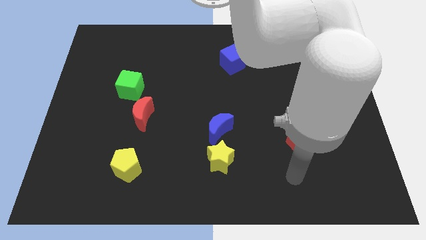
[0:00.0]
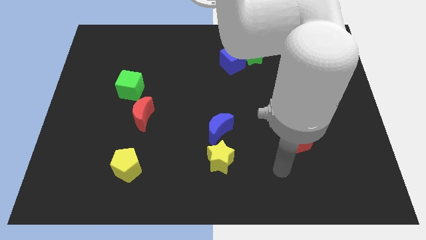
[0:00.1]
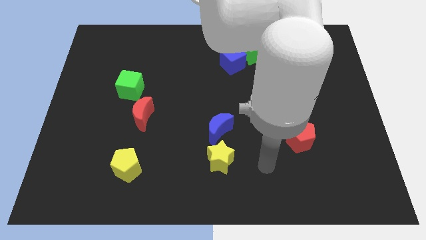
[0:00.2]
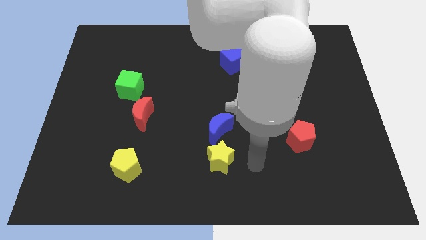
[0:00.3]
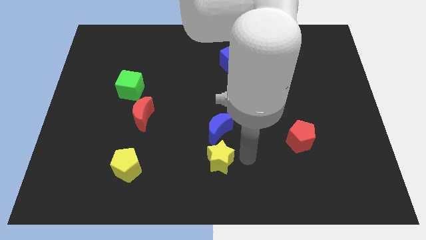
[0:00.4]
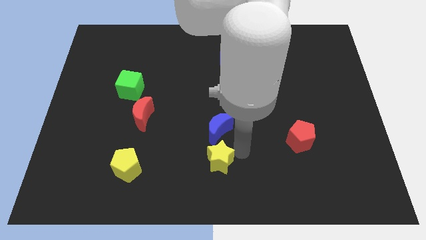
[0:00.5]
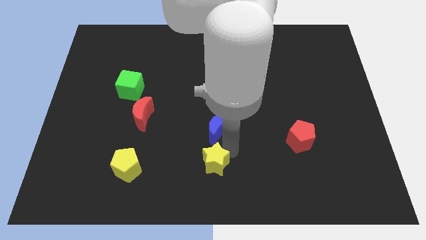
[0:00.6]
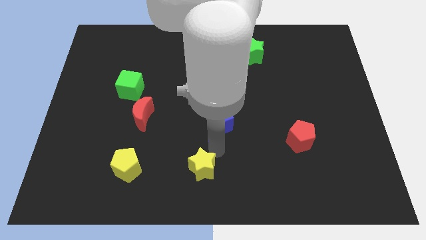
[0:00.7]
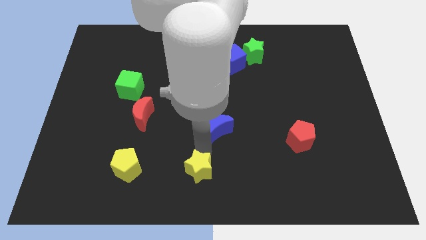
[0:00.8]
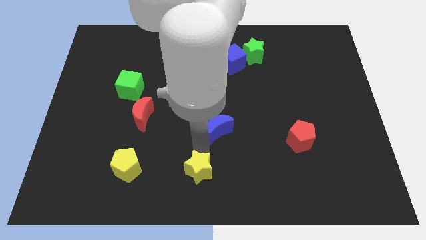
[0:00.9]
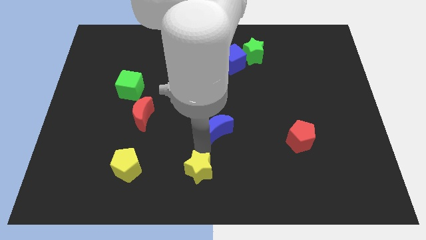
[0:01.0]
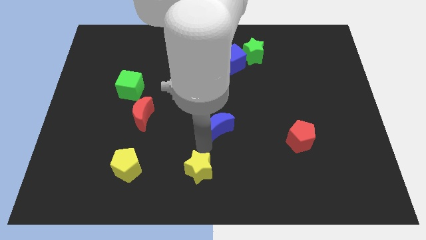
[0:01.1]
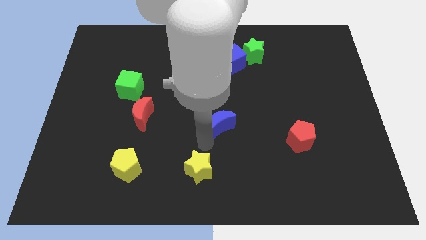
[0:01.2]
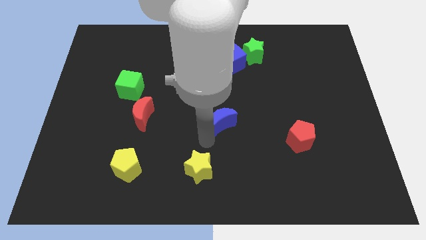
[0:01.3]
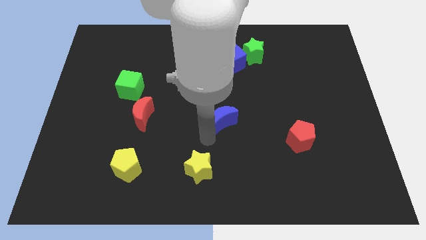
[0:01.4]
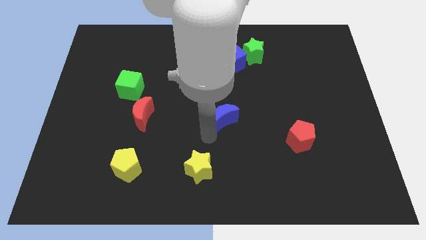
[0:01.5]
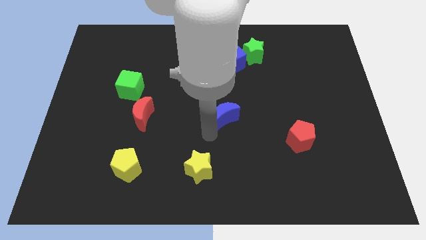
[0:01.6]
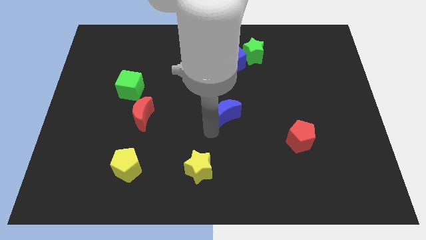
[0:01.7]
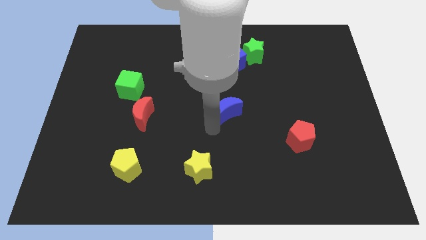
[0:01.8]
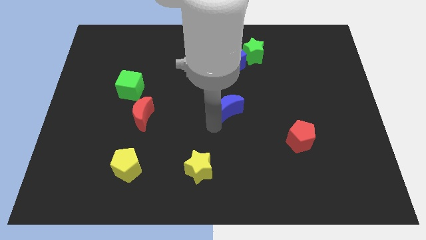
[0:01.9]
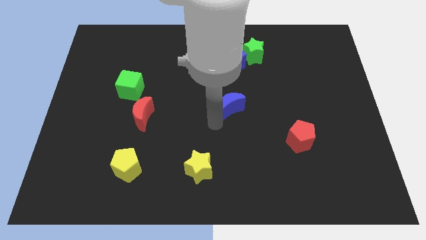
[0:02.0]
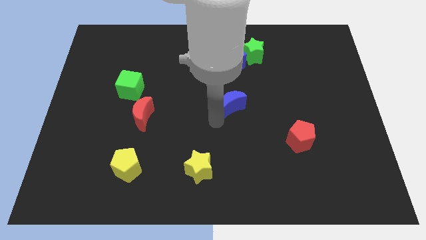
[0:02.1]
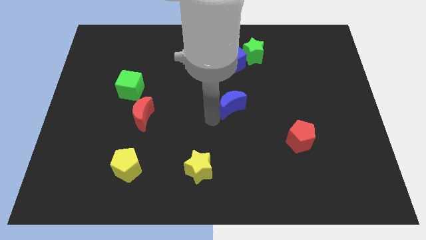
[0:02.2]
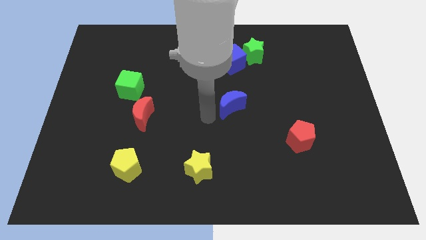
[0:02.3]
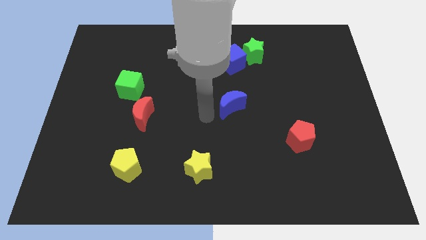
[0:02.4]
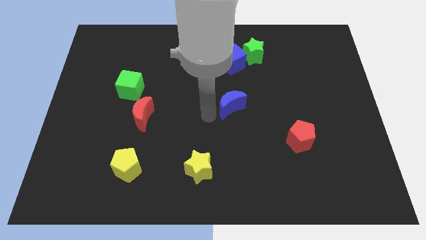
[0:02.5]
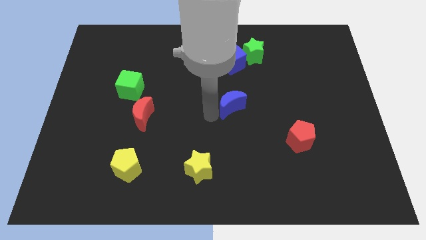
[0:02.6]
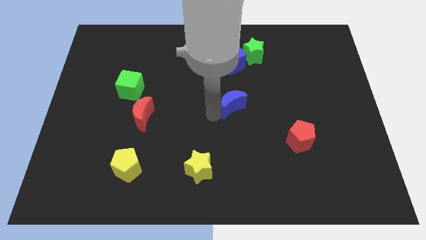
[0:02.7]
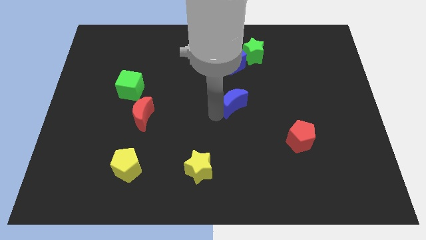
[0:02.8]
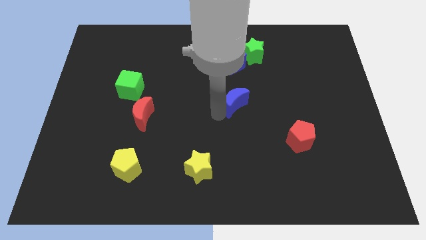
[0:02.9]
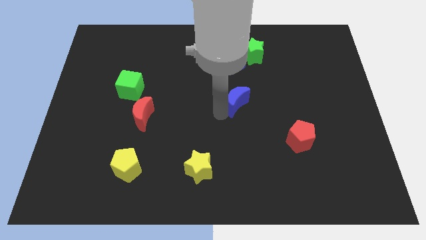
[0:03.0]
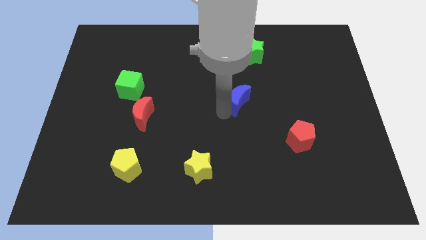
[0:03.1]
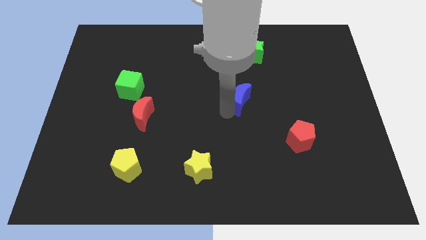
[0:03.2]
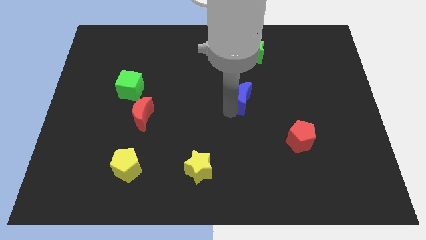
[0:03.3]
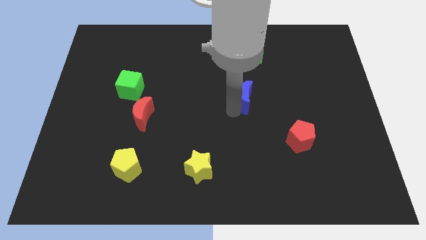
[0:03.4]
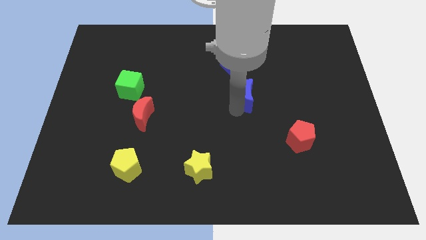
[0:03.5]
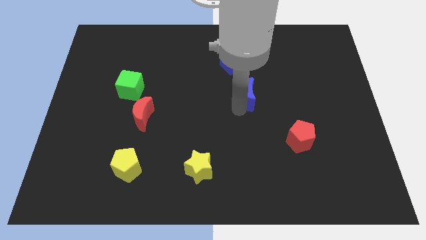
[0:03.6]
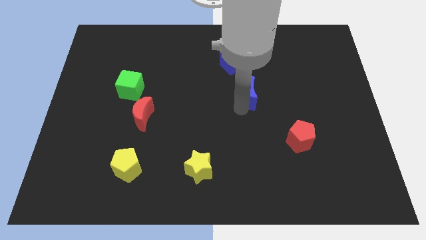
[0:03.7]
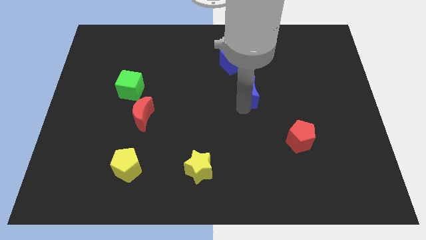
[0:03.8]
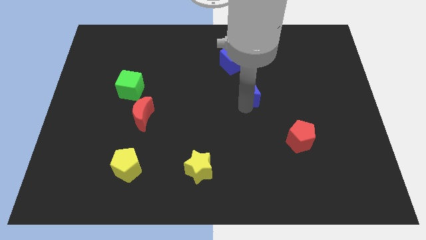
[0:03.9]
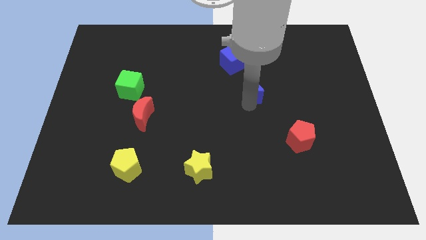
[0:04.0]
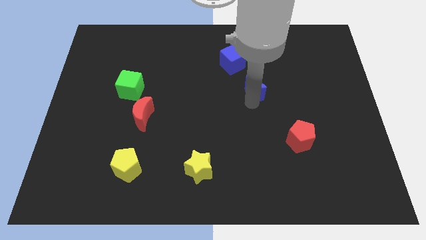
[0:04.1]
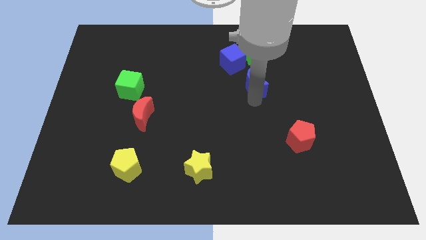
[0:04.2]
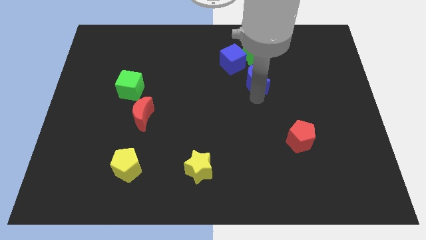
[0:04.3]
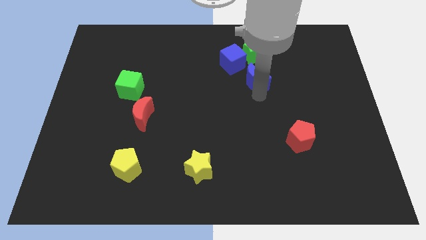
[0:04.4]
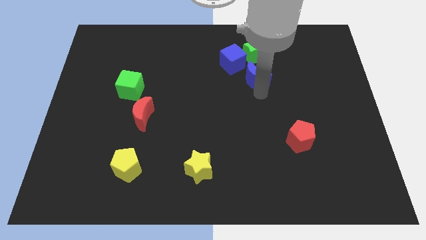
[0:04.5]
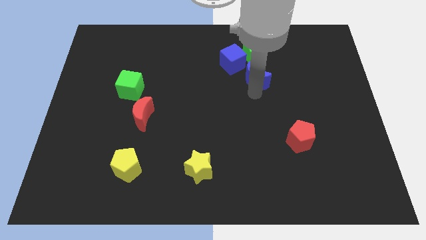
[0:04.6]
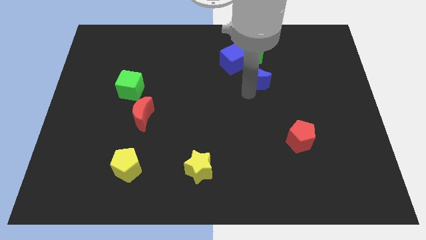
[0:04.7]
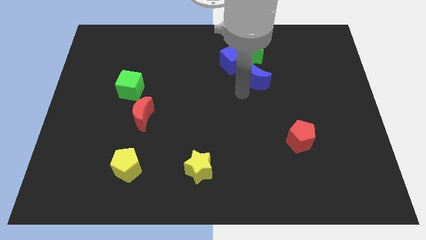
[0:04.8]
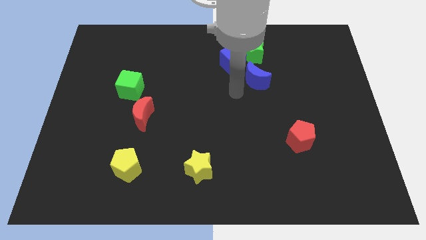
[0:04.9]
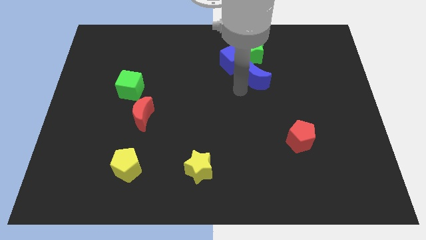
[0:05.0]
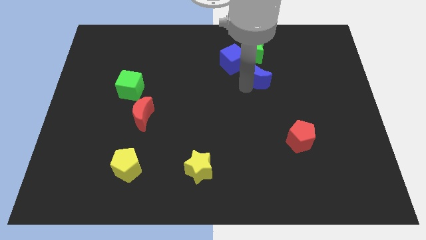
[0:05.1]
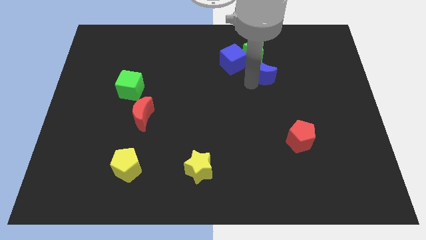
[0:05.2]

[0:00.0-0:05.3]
move the blue moon to the bottom right of the green star

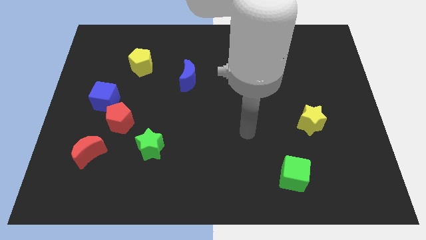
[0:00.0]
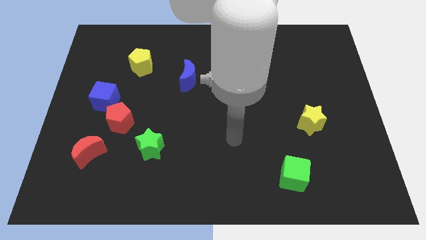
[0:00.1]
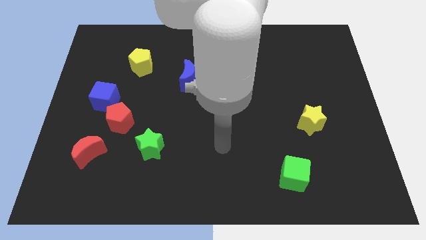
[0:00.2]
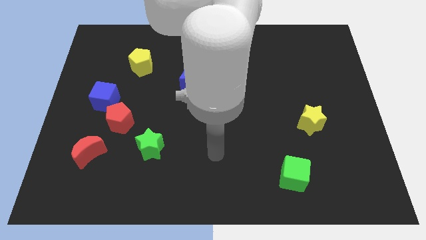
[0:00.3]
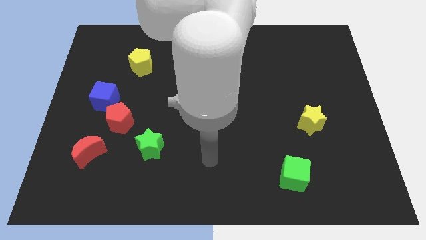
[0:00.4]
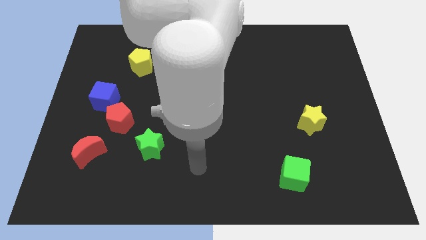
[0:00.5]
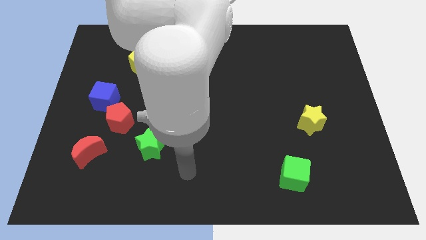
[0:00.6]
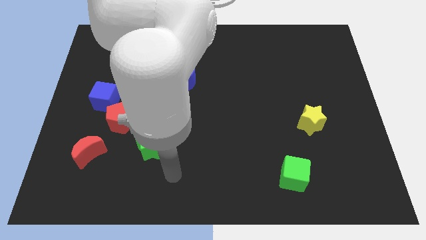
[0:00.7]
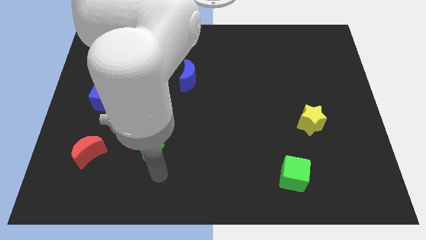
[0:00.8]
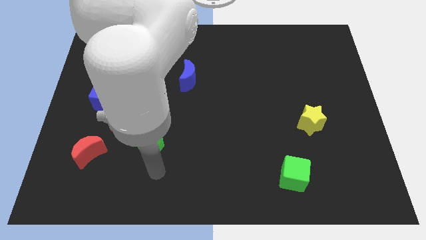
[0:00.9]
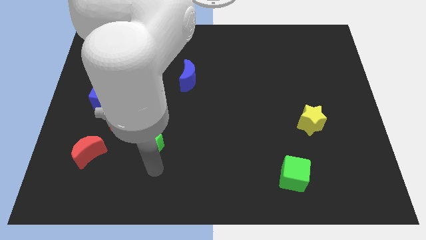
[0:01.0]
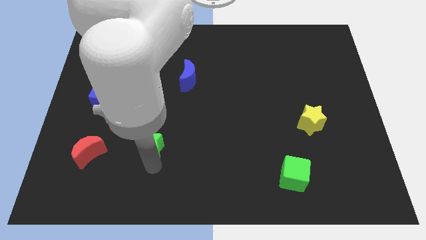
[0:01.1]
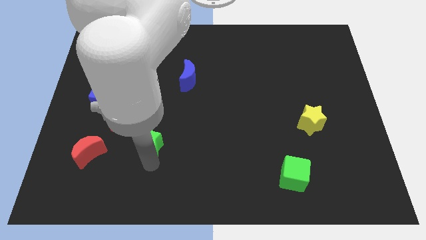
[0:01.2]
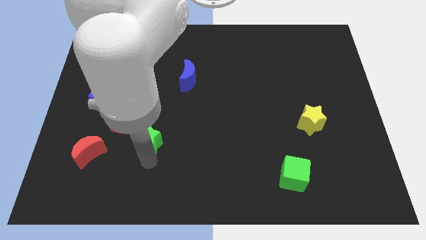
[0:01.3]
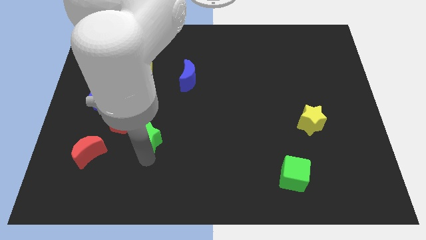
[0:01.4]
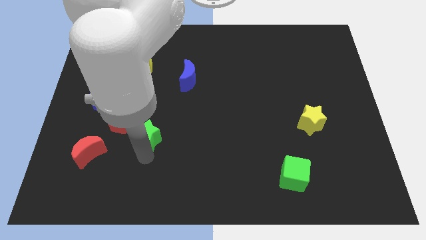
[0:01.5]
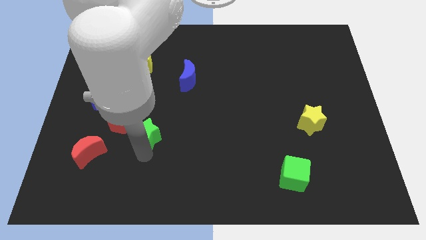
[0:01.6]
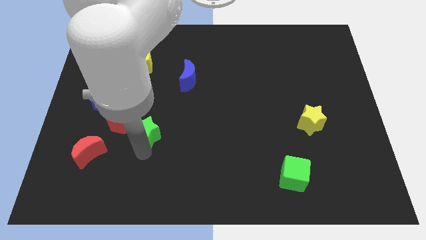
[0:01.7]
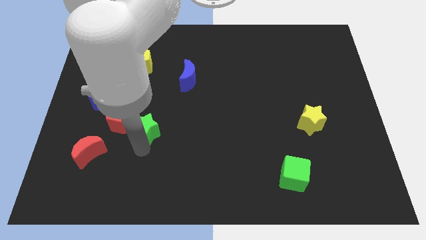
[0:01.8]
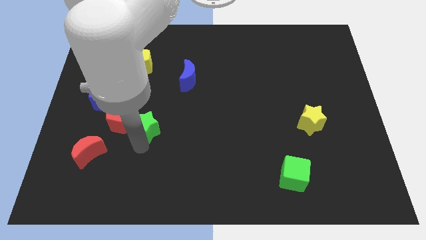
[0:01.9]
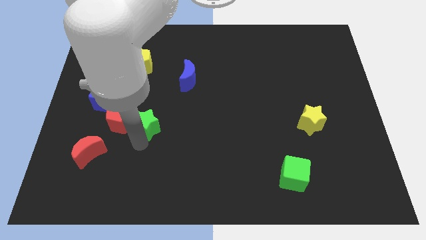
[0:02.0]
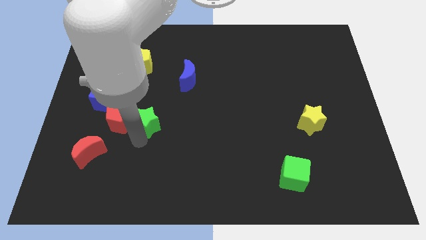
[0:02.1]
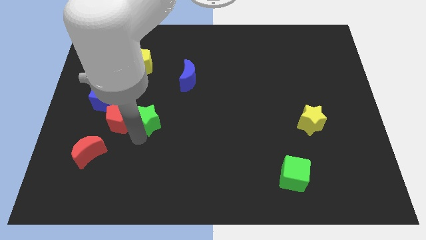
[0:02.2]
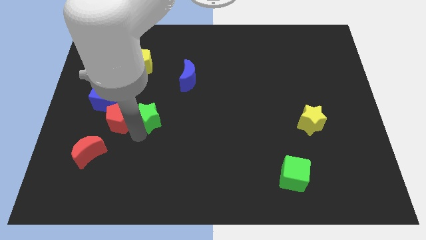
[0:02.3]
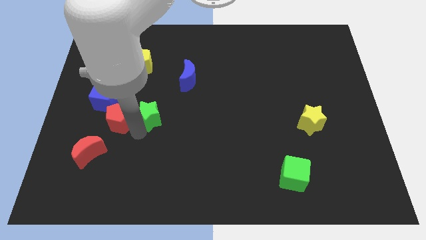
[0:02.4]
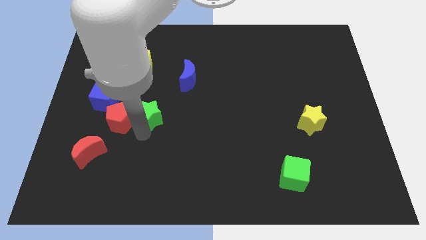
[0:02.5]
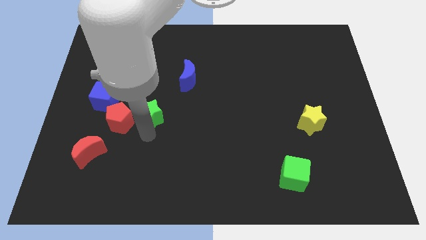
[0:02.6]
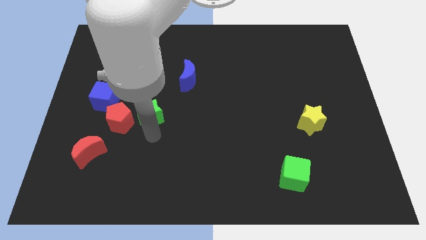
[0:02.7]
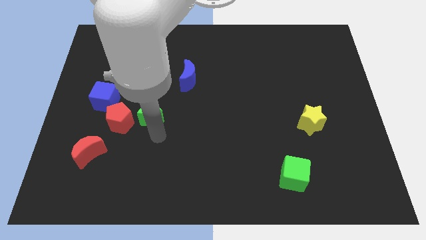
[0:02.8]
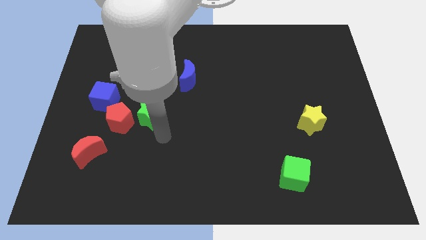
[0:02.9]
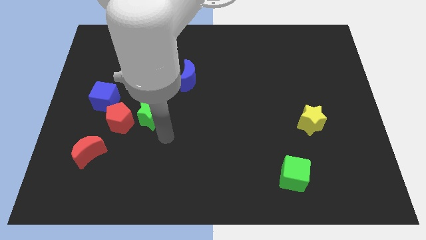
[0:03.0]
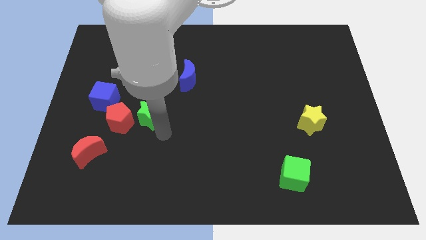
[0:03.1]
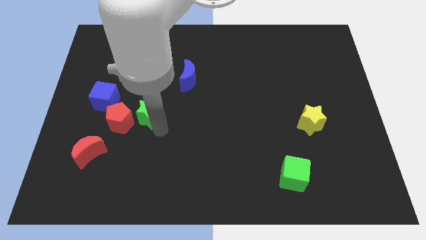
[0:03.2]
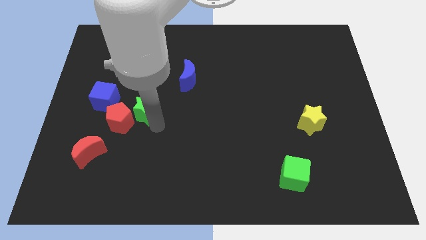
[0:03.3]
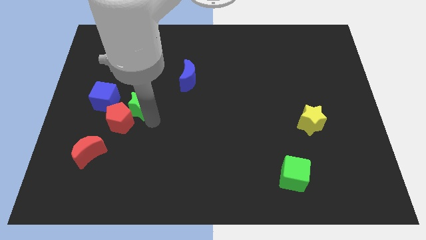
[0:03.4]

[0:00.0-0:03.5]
push the green star to the bottom side of the yellow pentagon
